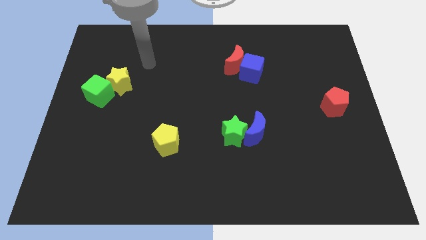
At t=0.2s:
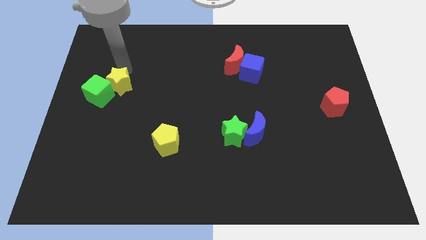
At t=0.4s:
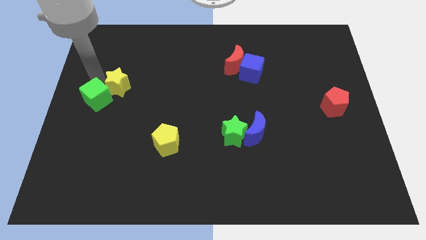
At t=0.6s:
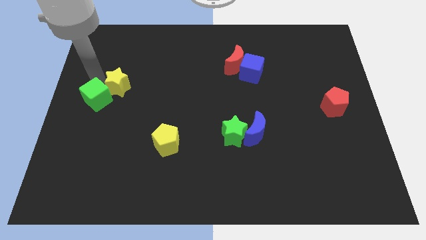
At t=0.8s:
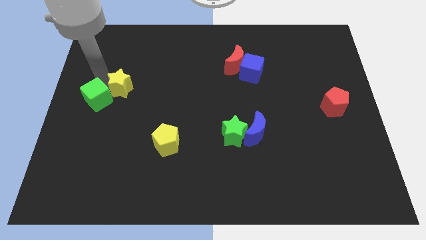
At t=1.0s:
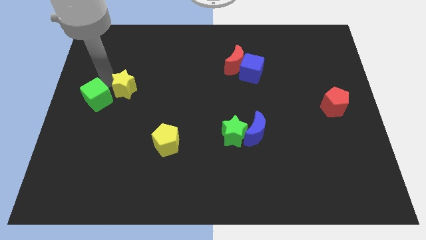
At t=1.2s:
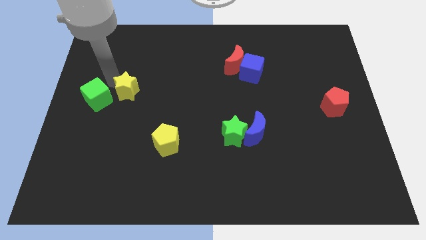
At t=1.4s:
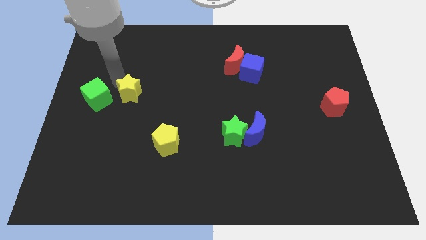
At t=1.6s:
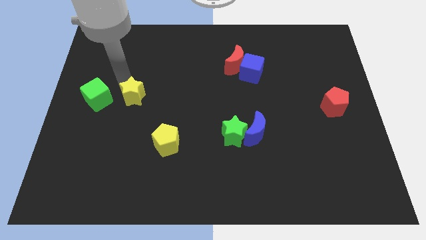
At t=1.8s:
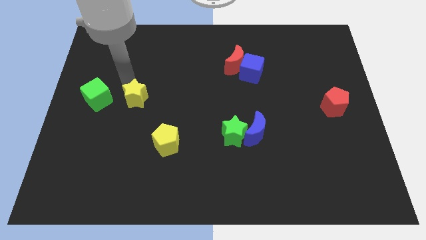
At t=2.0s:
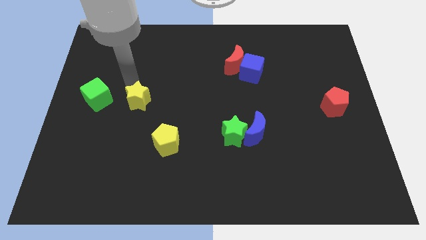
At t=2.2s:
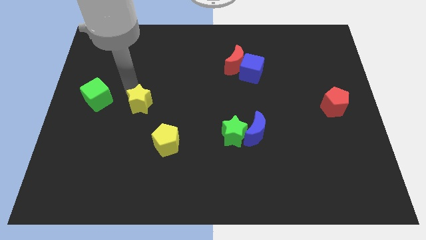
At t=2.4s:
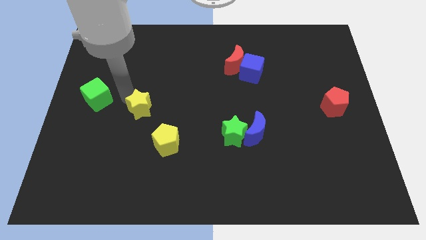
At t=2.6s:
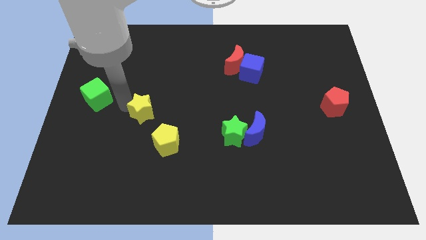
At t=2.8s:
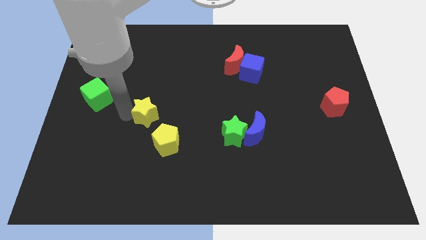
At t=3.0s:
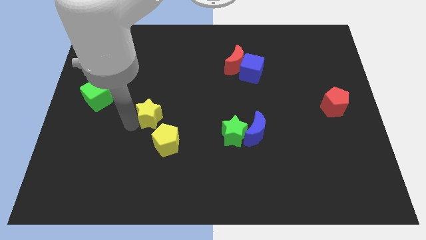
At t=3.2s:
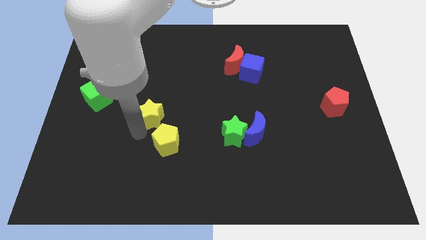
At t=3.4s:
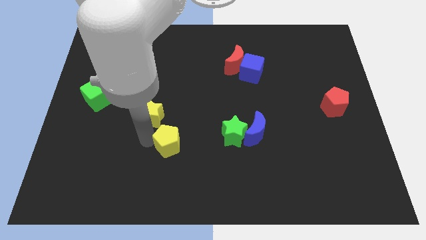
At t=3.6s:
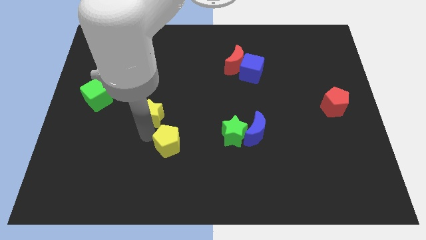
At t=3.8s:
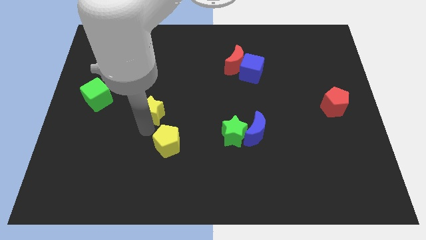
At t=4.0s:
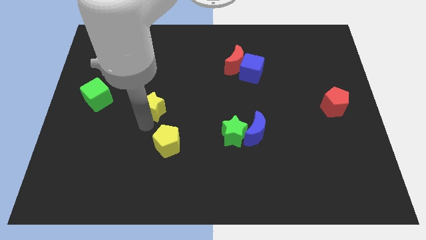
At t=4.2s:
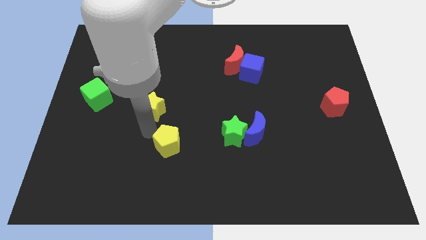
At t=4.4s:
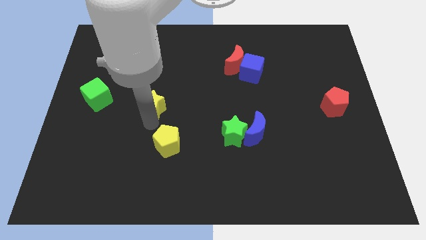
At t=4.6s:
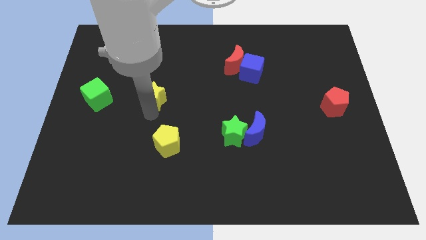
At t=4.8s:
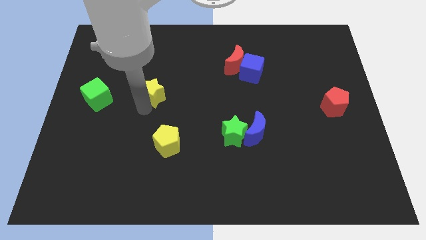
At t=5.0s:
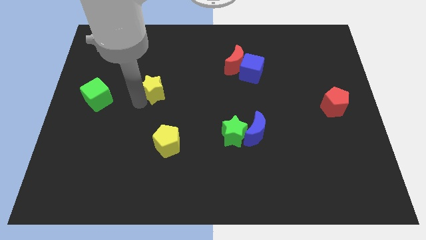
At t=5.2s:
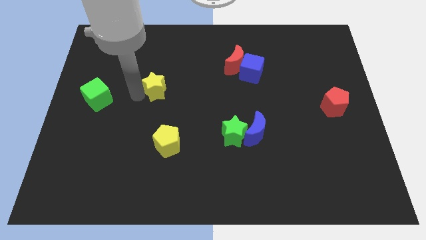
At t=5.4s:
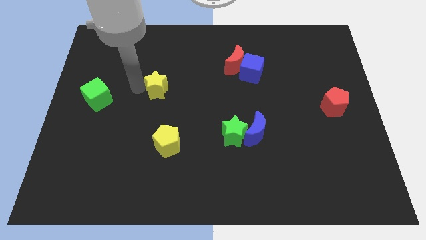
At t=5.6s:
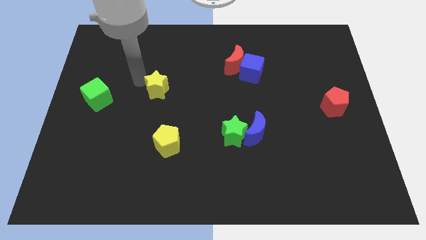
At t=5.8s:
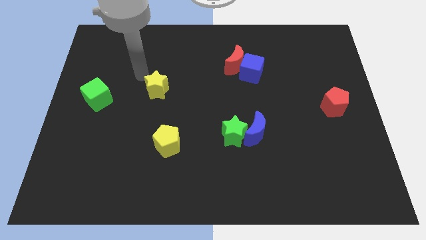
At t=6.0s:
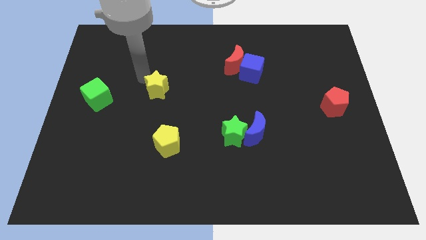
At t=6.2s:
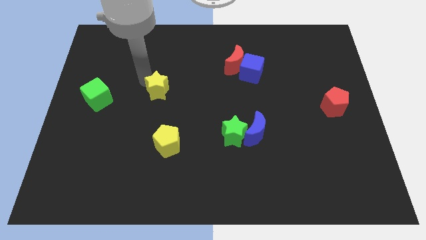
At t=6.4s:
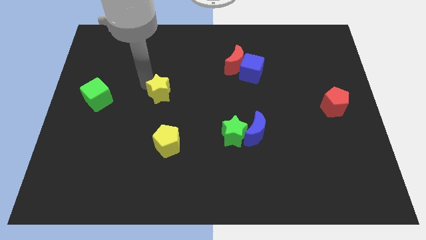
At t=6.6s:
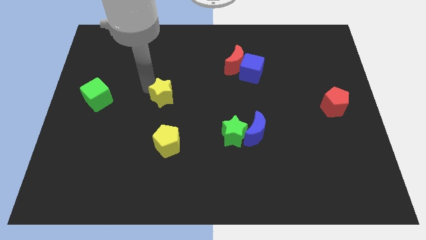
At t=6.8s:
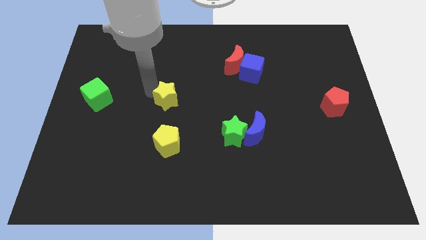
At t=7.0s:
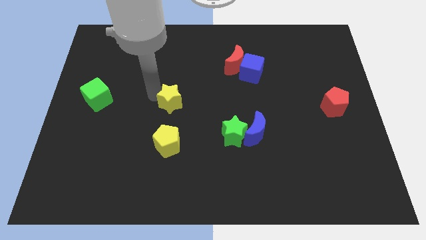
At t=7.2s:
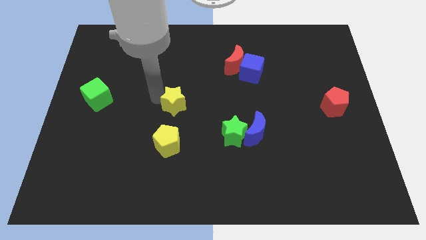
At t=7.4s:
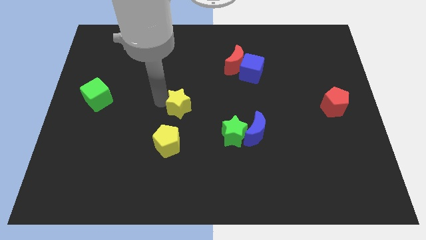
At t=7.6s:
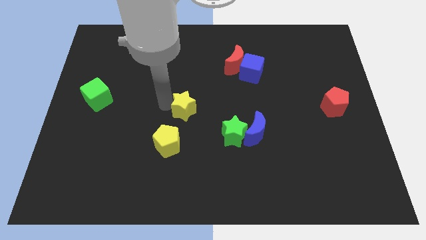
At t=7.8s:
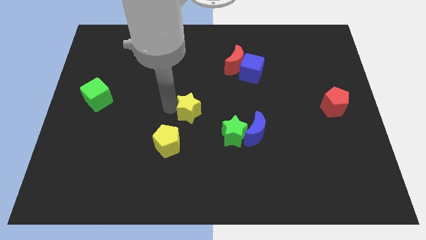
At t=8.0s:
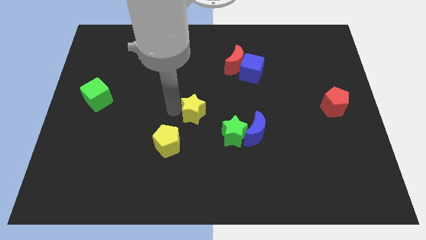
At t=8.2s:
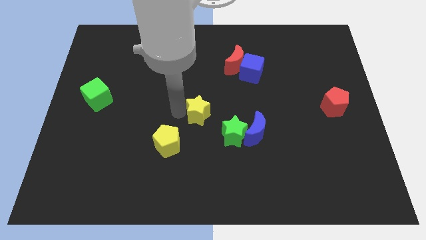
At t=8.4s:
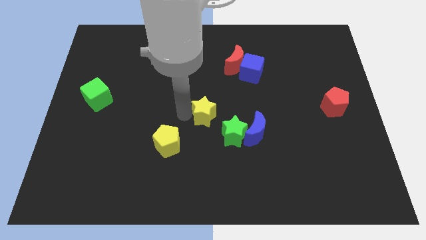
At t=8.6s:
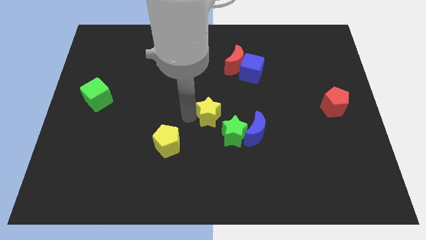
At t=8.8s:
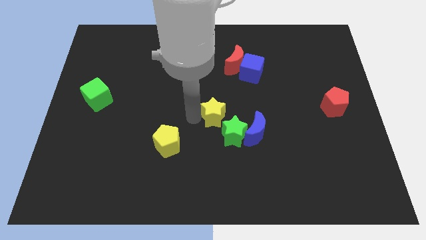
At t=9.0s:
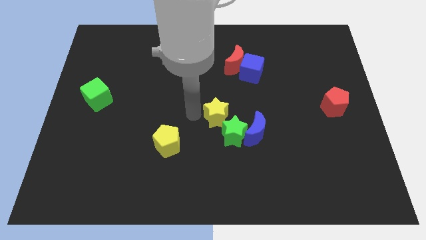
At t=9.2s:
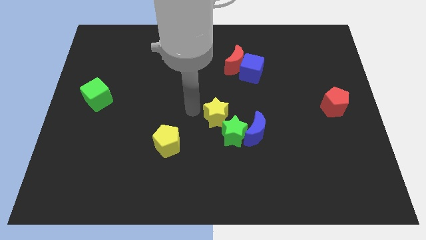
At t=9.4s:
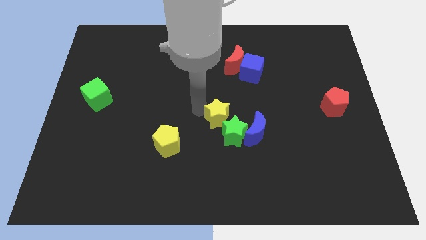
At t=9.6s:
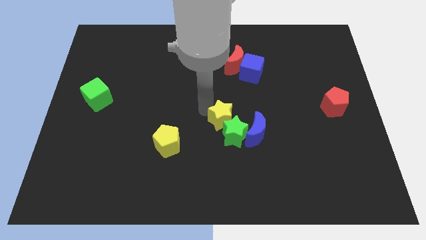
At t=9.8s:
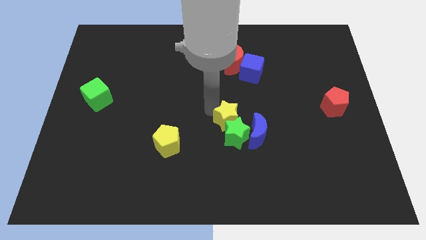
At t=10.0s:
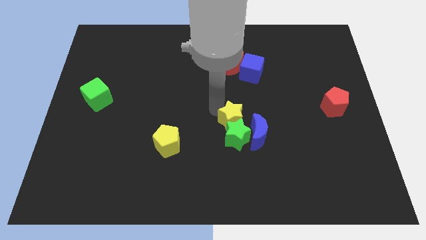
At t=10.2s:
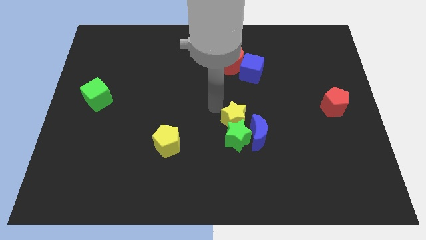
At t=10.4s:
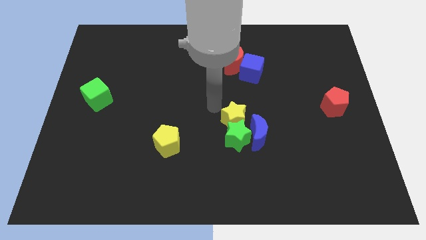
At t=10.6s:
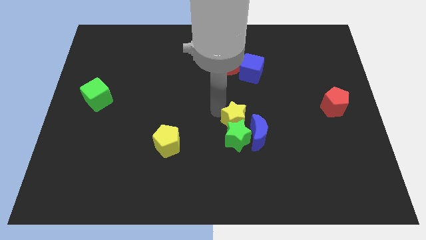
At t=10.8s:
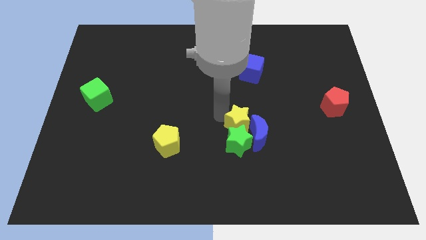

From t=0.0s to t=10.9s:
push the yellow star close to the blue moon
